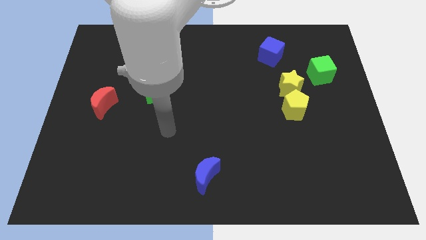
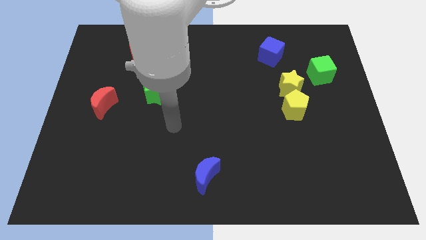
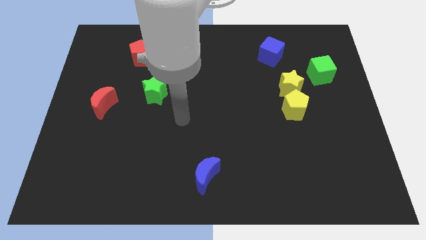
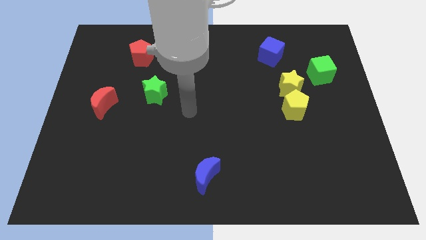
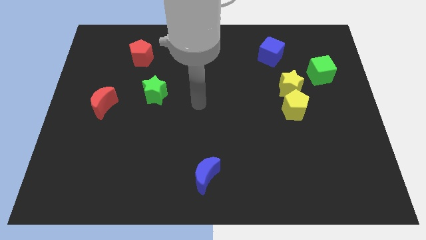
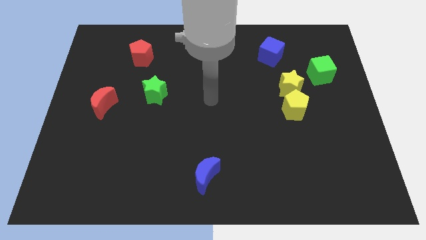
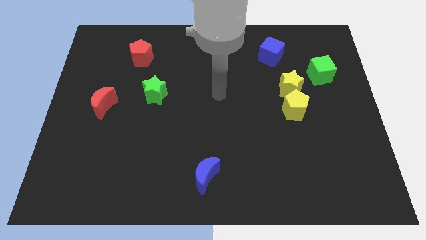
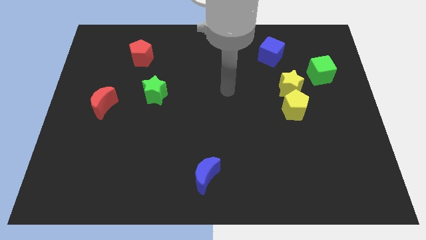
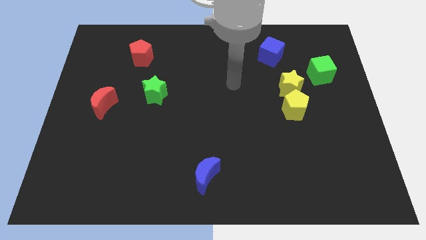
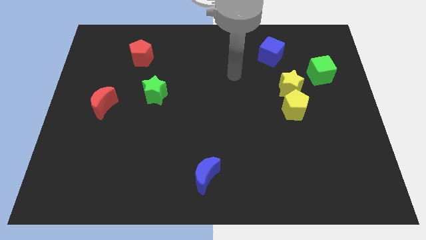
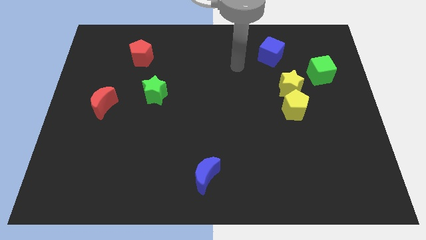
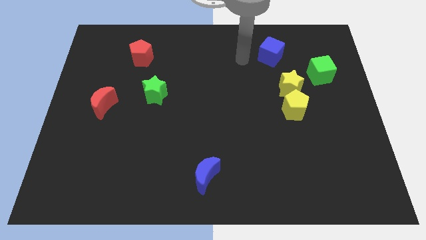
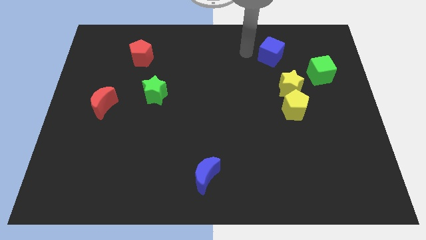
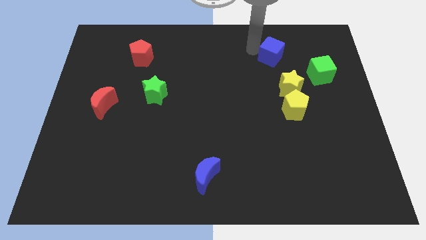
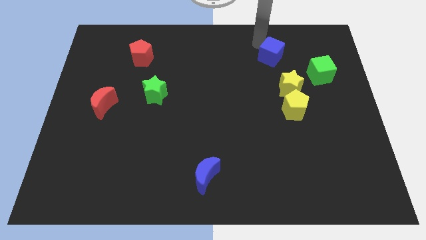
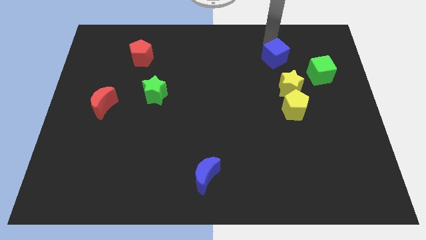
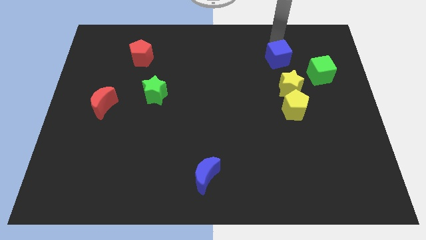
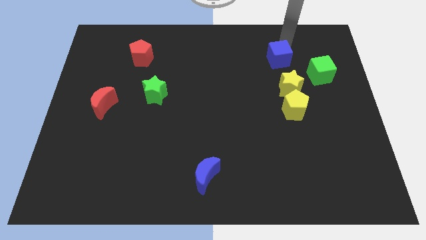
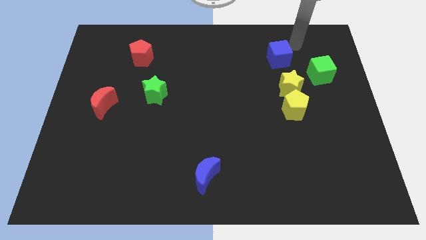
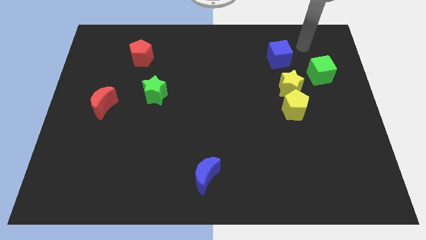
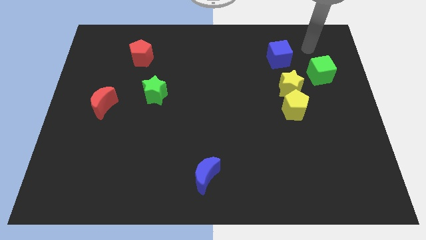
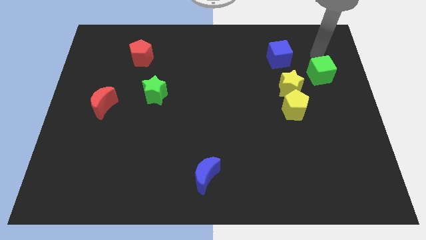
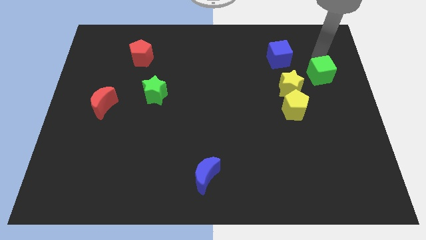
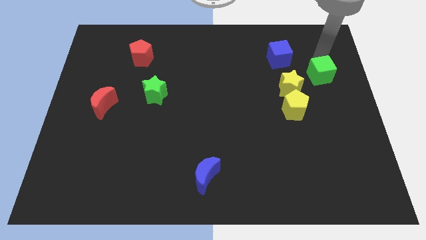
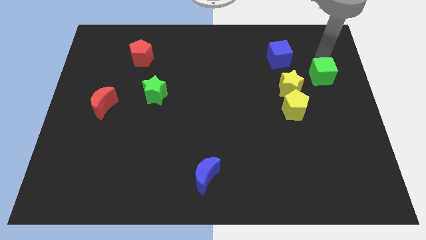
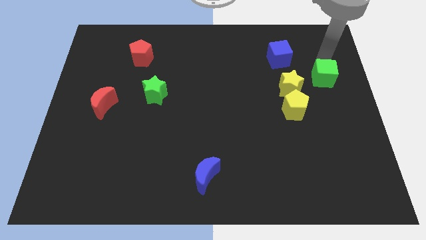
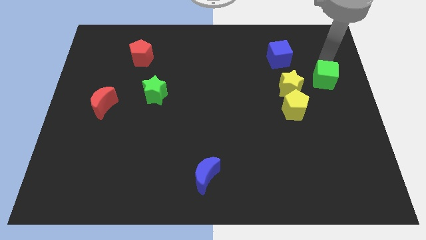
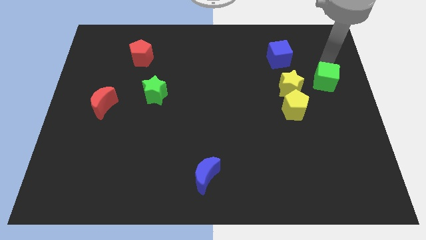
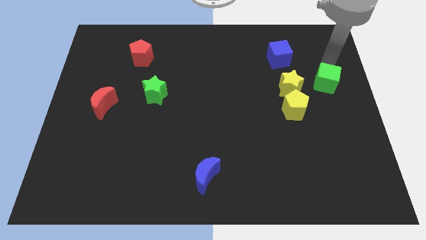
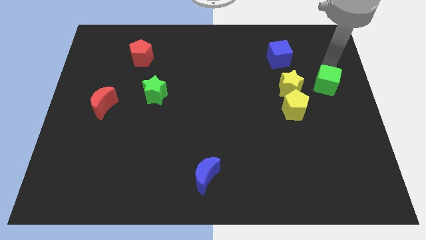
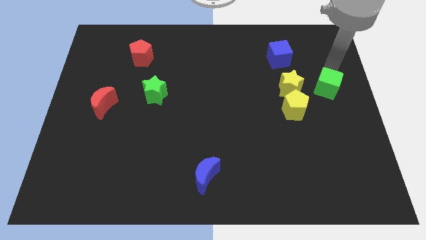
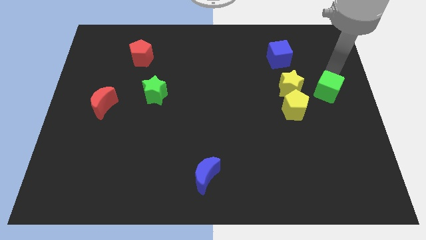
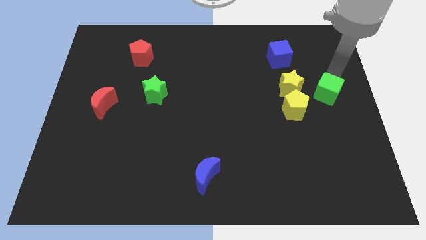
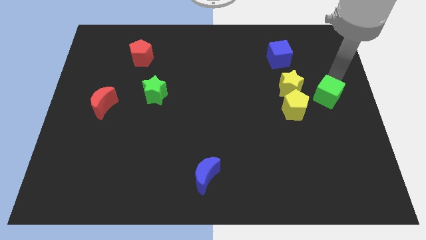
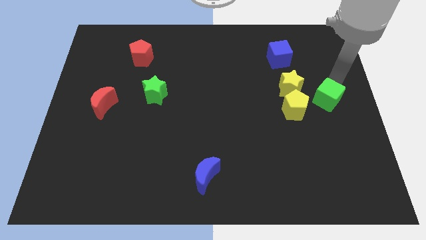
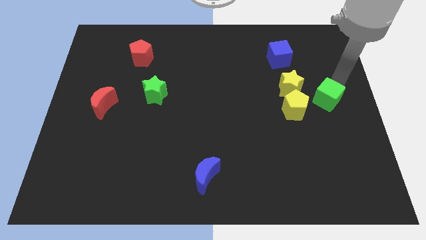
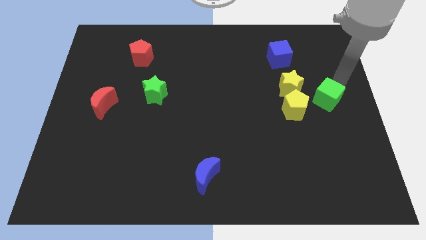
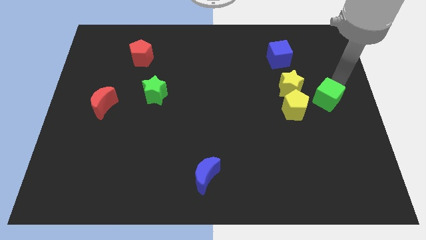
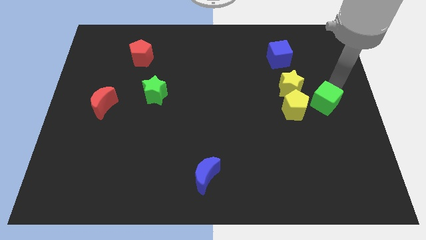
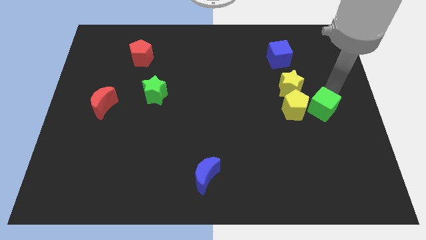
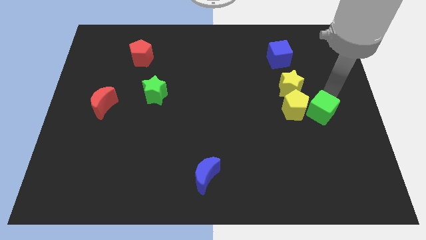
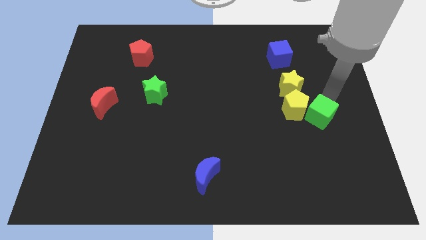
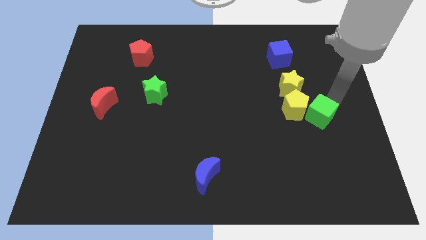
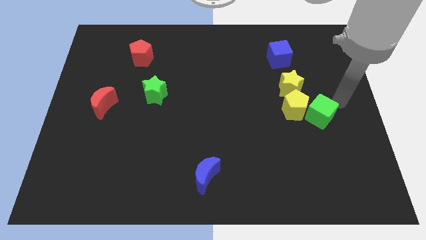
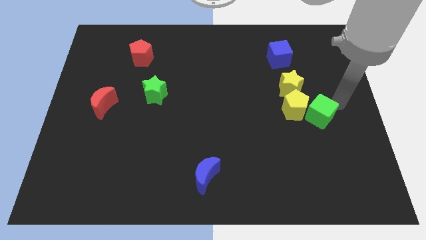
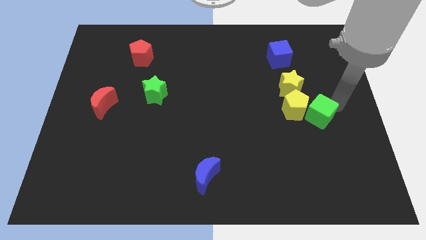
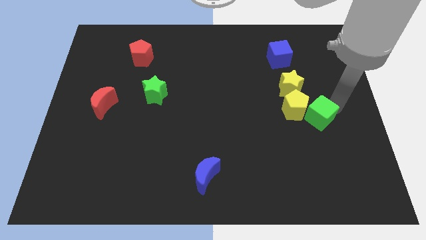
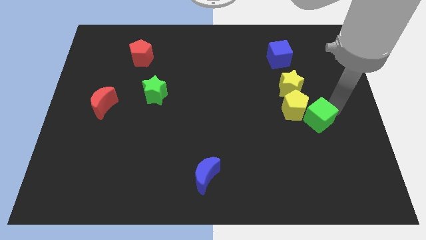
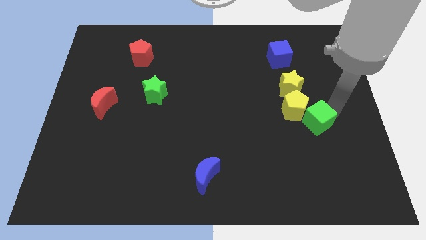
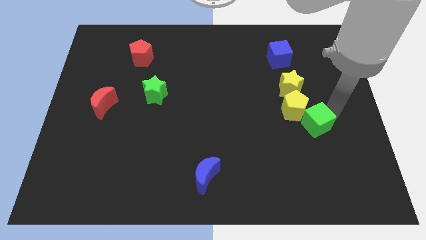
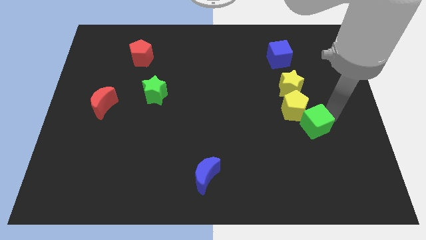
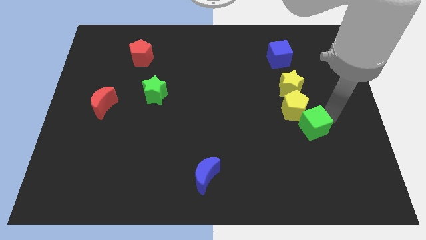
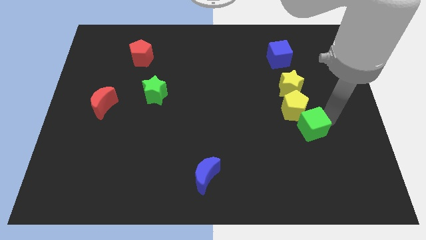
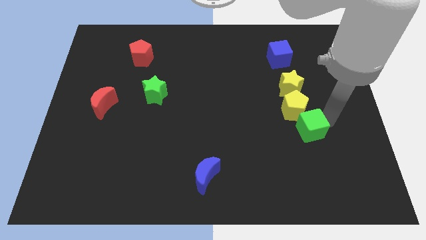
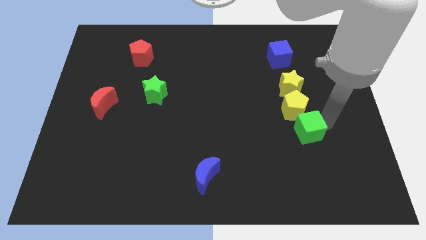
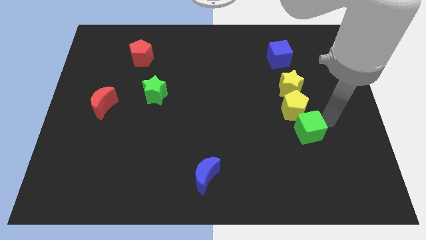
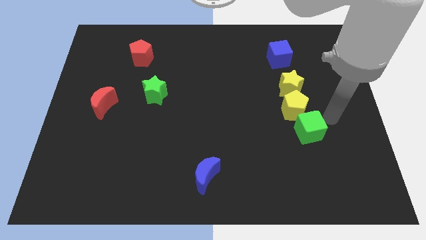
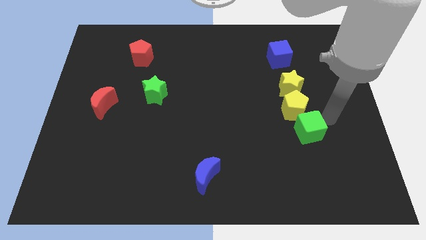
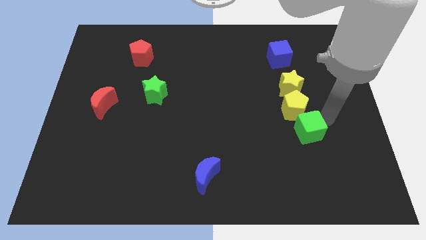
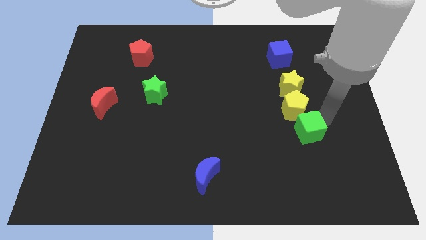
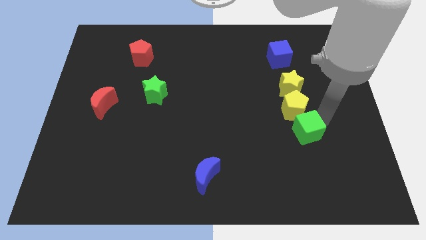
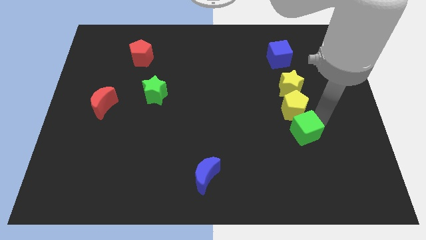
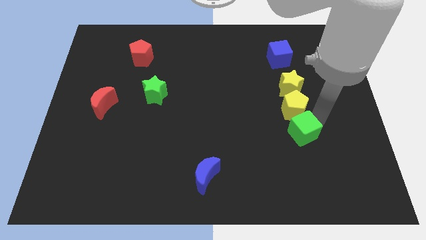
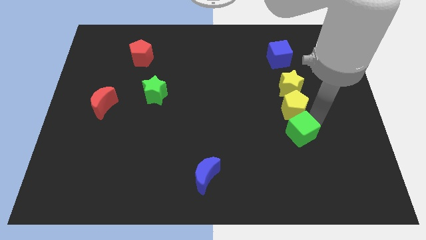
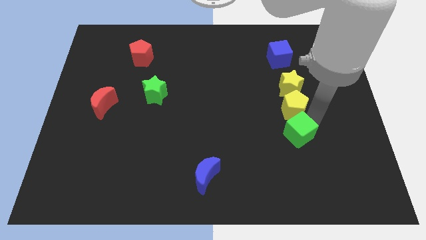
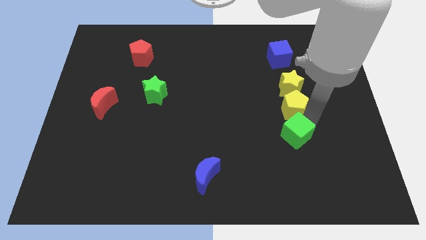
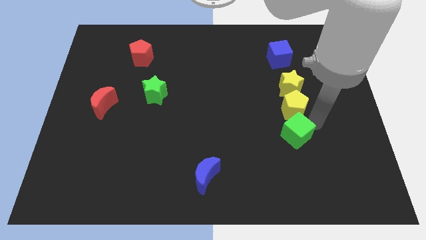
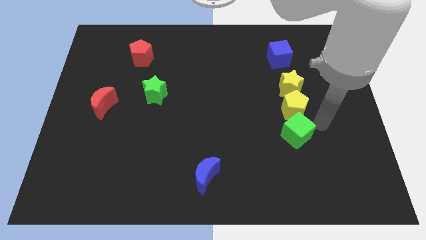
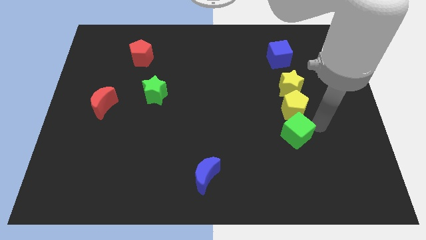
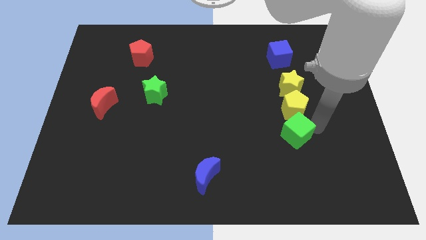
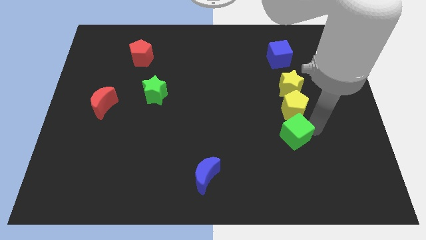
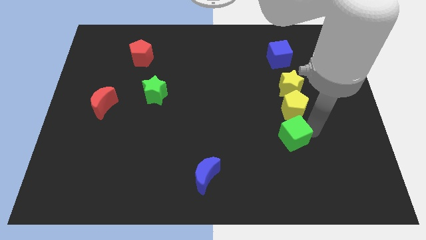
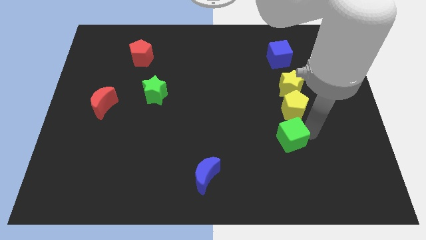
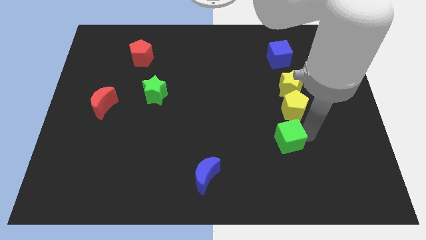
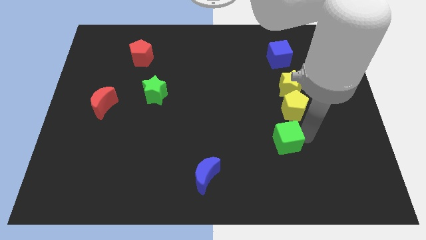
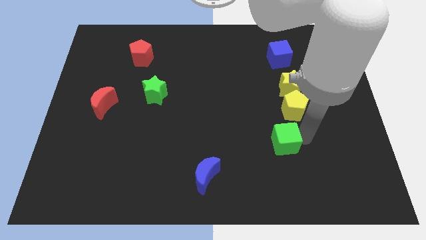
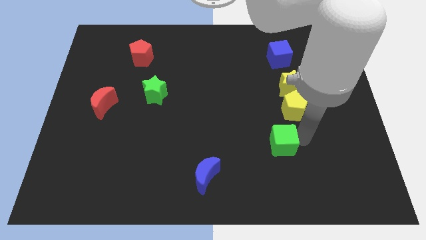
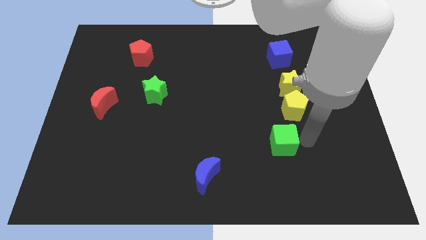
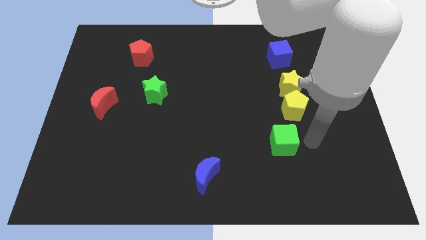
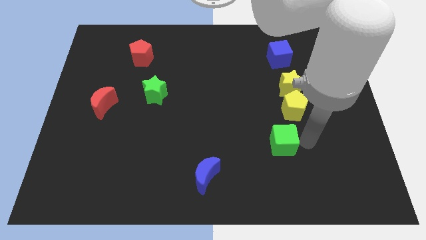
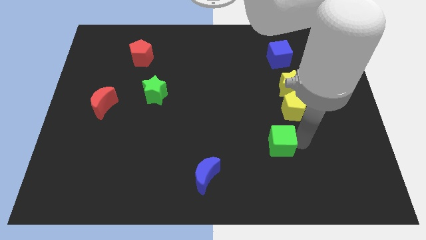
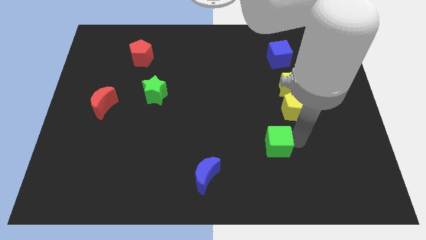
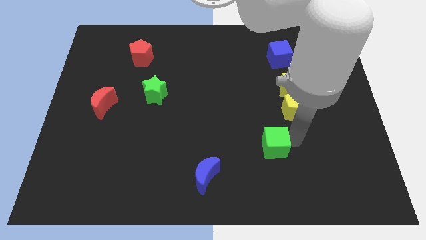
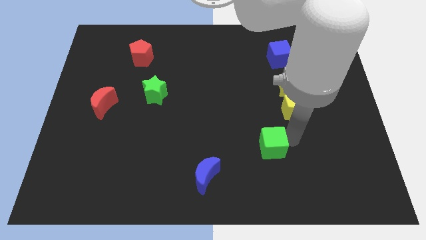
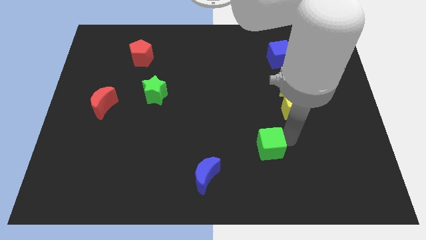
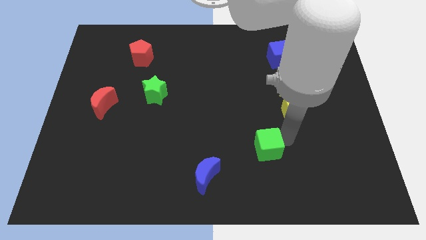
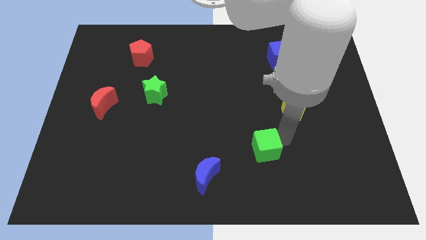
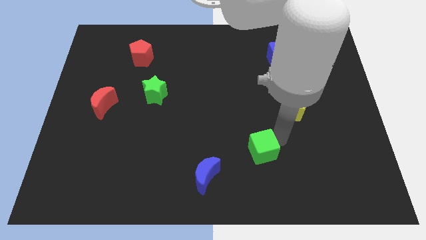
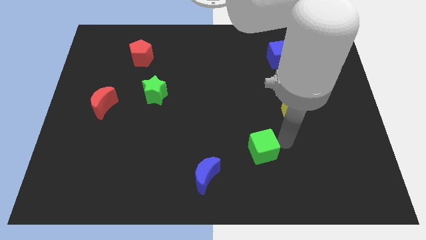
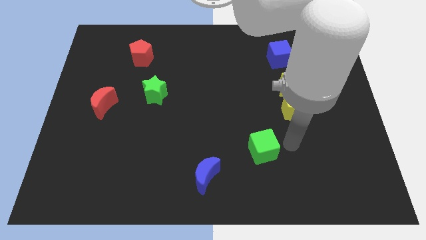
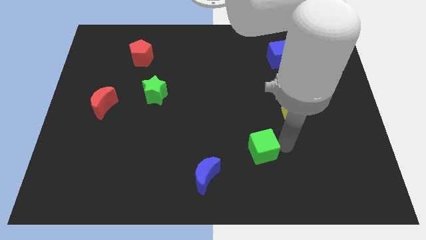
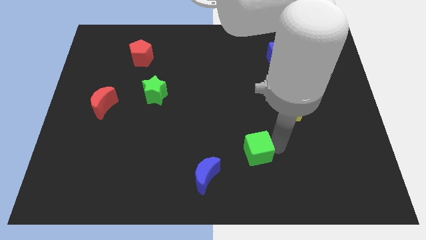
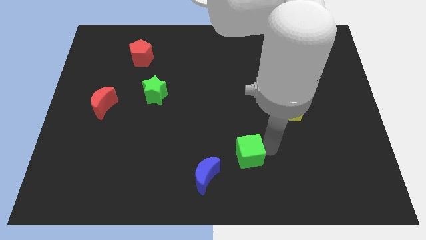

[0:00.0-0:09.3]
push the green cube to the top right of the blue moon
